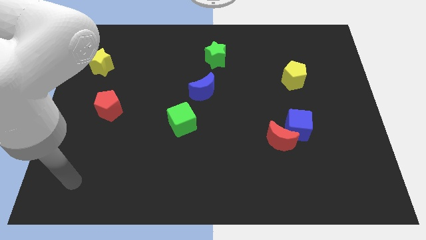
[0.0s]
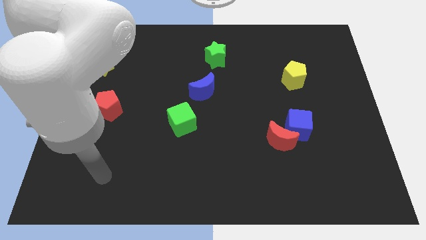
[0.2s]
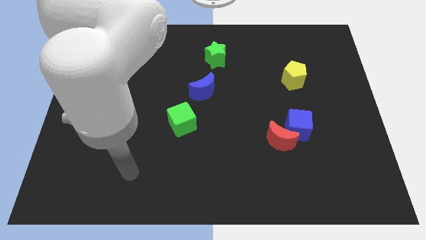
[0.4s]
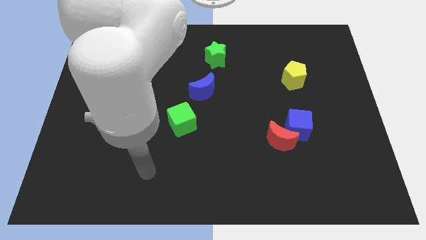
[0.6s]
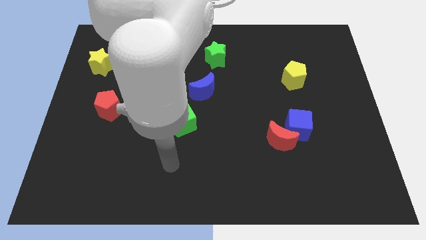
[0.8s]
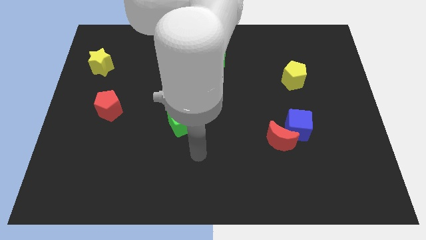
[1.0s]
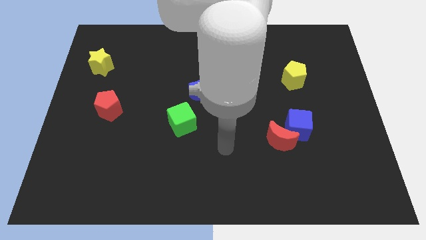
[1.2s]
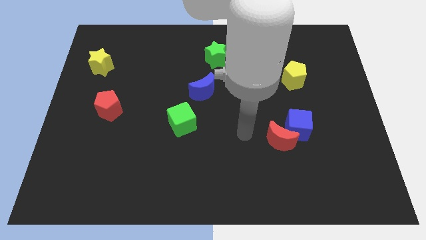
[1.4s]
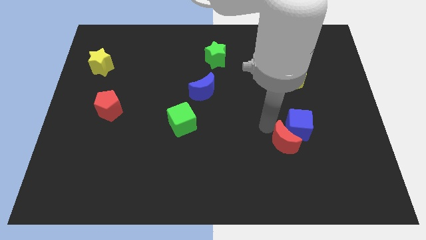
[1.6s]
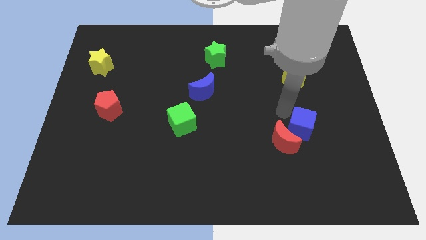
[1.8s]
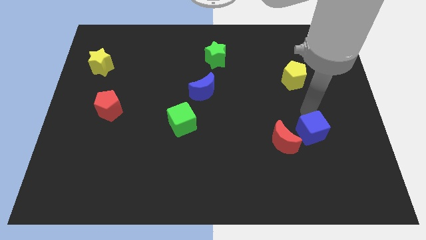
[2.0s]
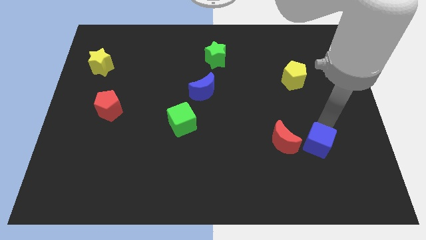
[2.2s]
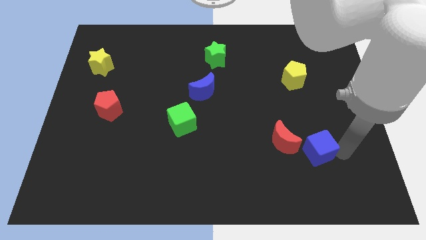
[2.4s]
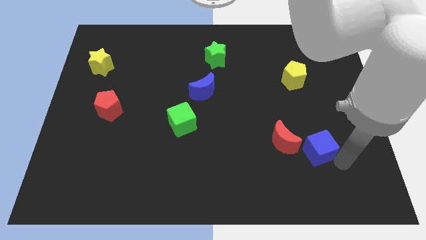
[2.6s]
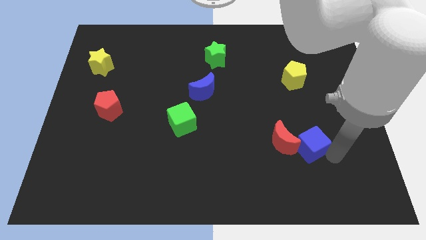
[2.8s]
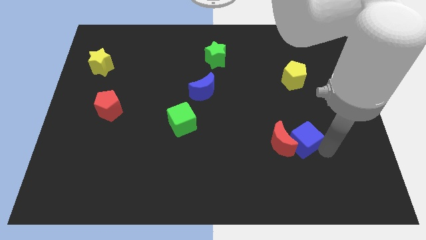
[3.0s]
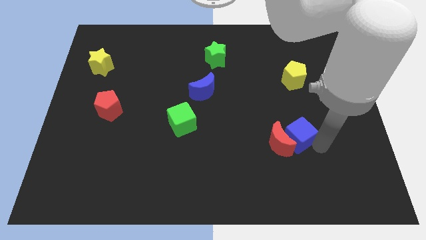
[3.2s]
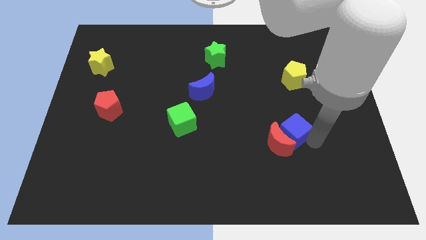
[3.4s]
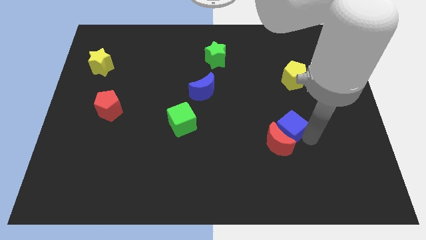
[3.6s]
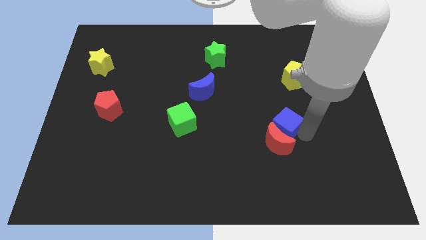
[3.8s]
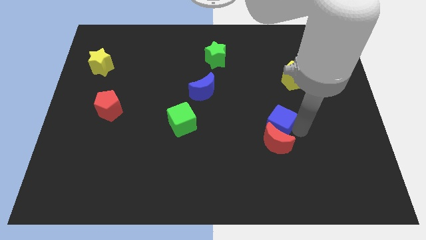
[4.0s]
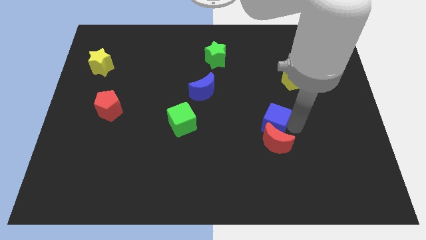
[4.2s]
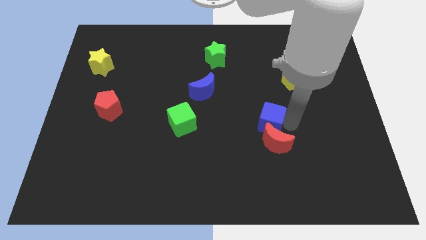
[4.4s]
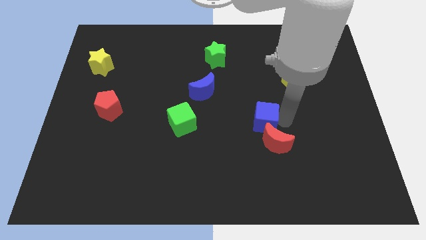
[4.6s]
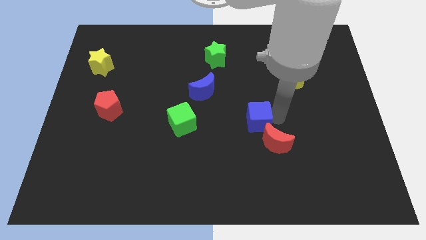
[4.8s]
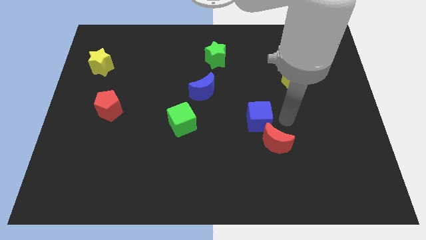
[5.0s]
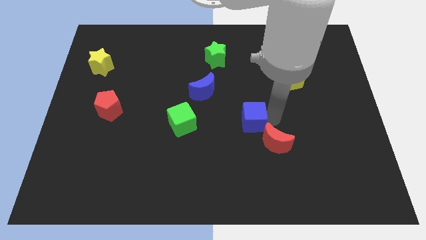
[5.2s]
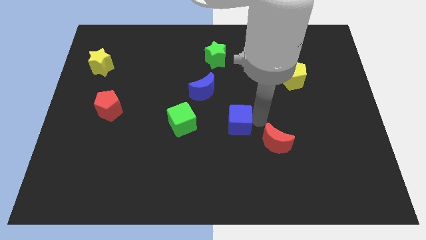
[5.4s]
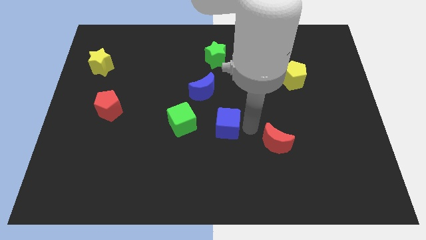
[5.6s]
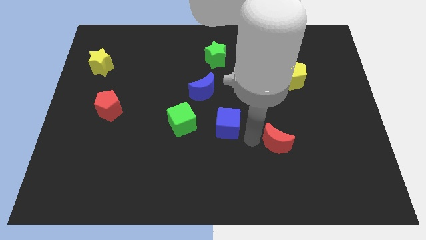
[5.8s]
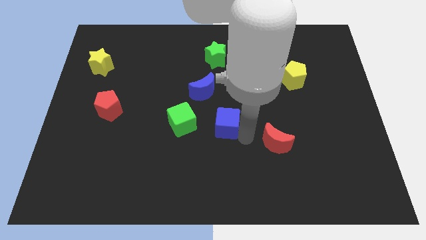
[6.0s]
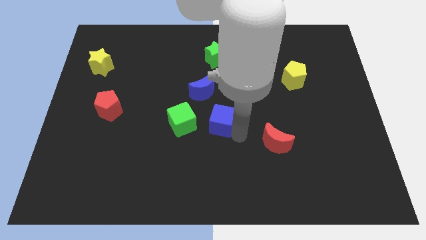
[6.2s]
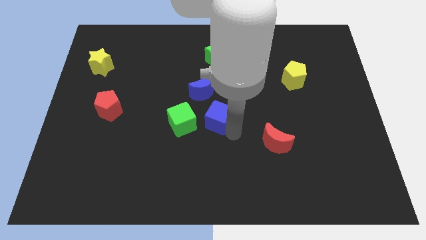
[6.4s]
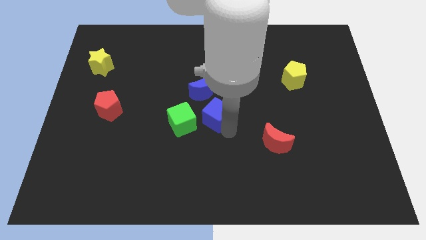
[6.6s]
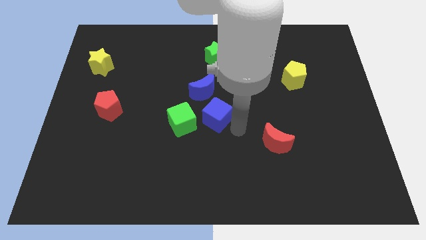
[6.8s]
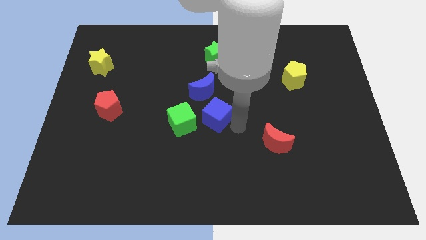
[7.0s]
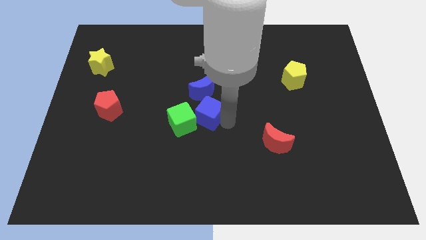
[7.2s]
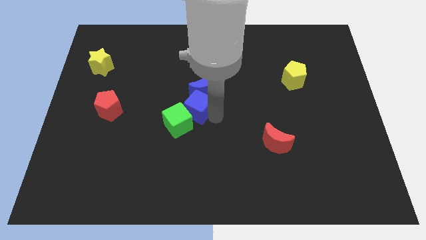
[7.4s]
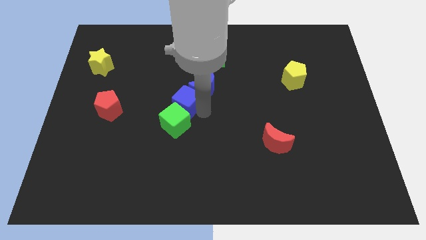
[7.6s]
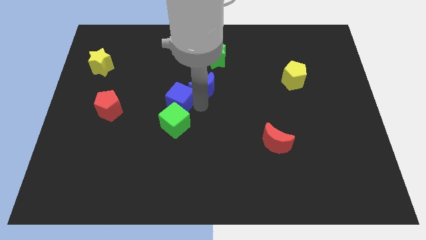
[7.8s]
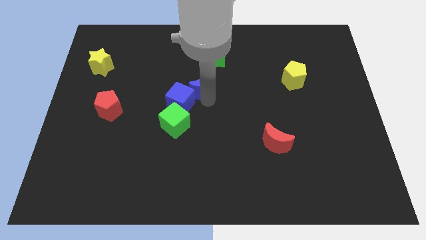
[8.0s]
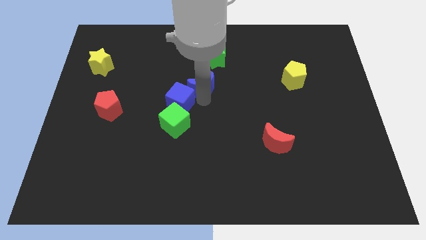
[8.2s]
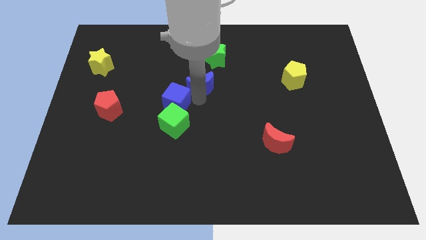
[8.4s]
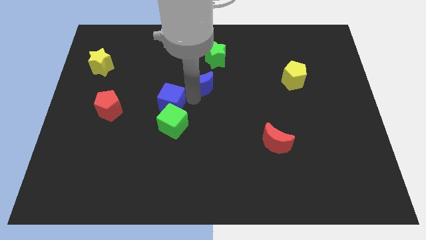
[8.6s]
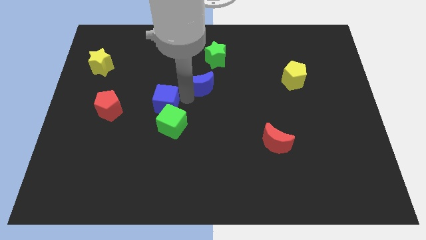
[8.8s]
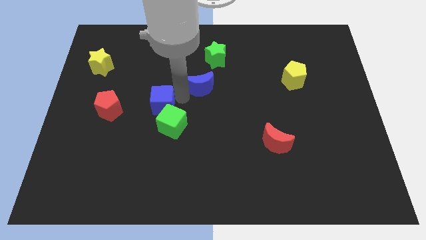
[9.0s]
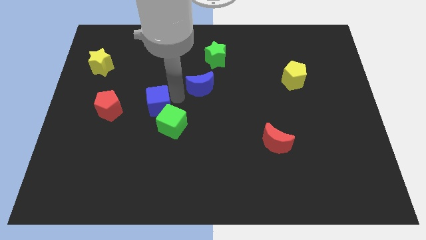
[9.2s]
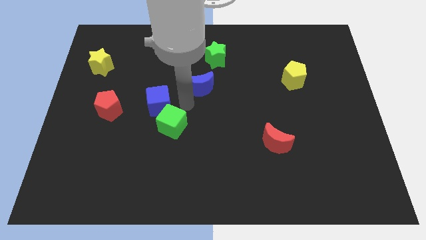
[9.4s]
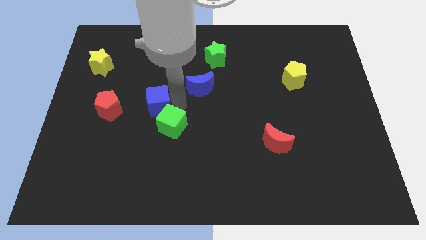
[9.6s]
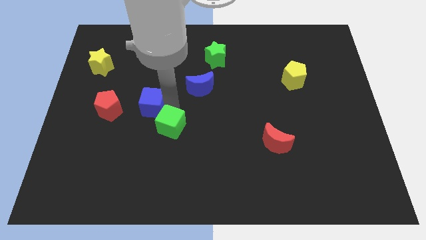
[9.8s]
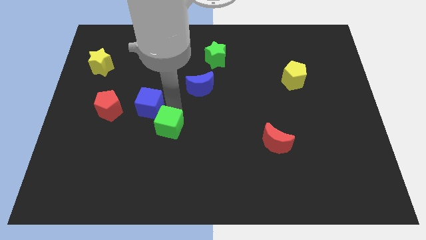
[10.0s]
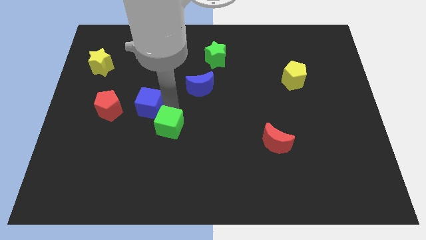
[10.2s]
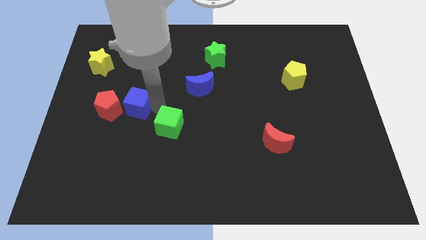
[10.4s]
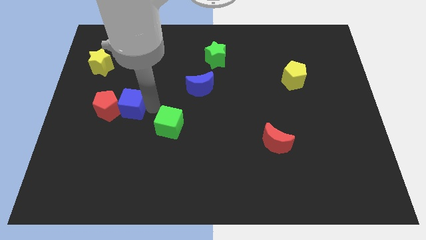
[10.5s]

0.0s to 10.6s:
push the blue cube towards the red pentagon

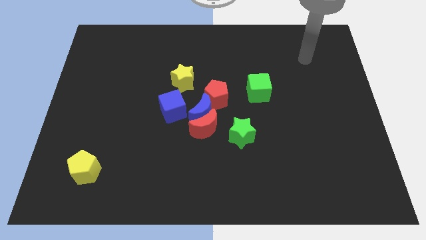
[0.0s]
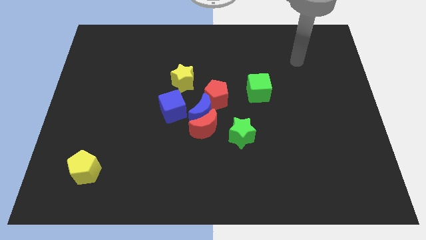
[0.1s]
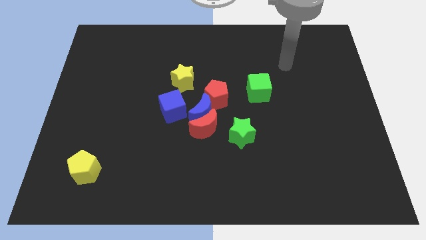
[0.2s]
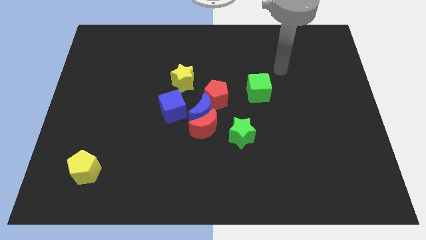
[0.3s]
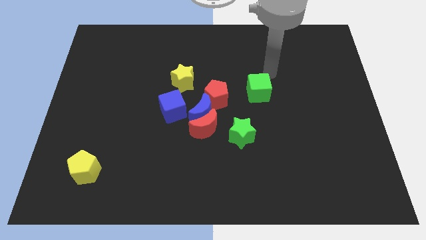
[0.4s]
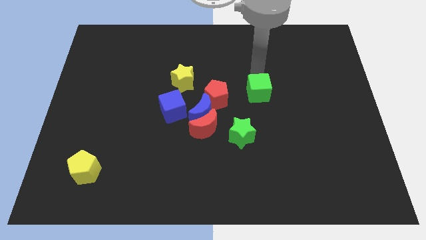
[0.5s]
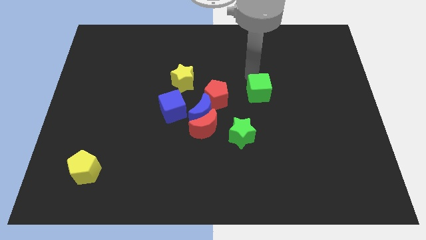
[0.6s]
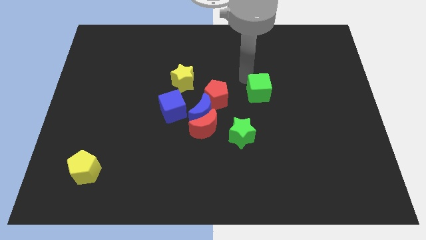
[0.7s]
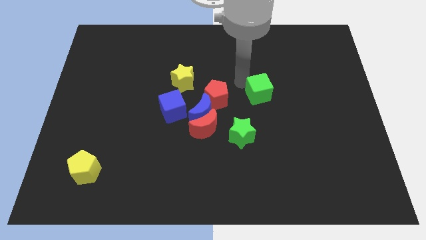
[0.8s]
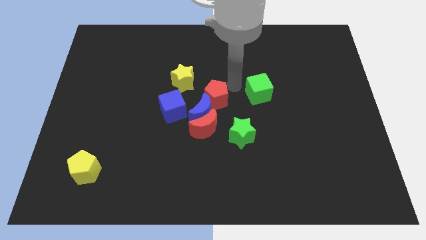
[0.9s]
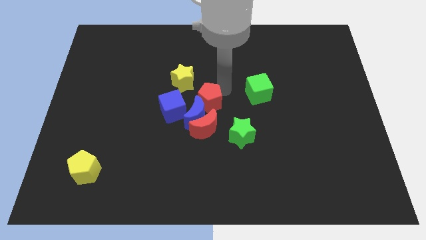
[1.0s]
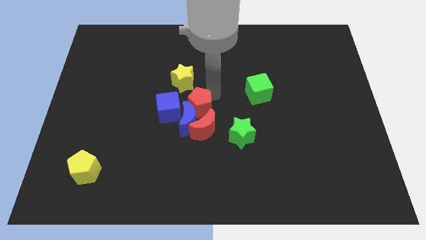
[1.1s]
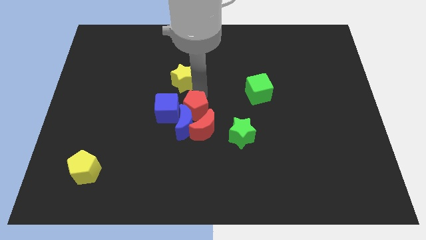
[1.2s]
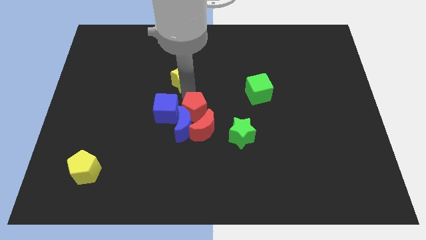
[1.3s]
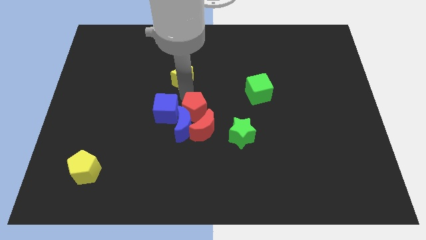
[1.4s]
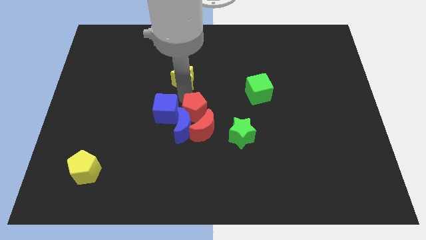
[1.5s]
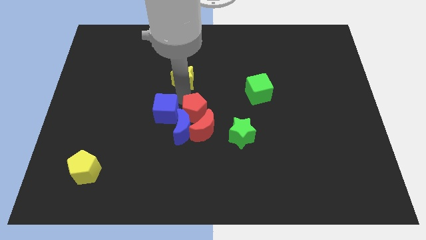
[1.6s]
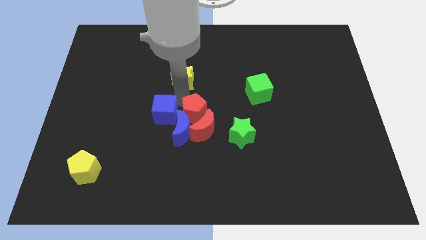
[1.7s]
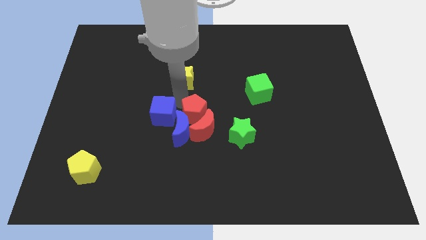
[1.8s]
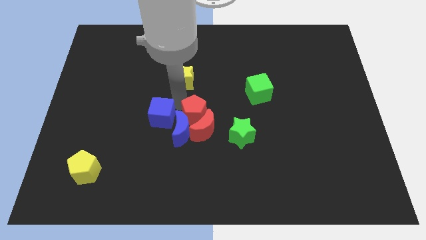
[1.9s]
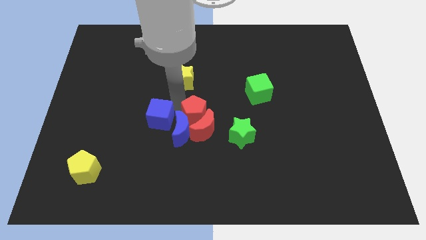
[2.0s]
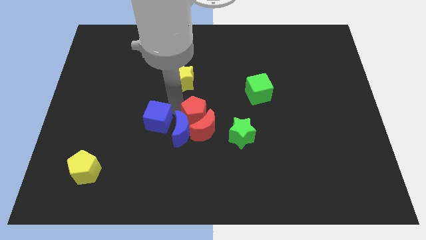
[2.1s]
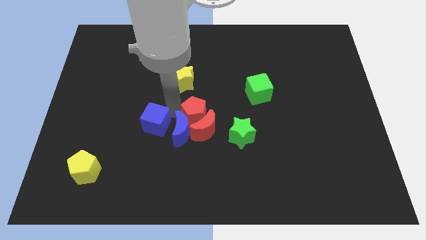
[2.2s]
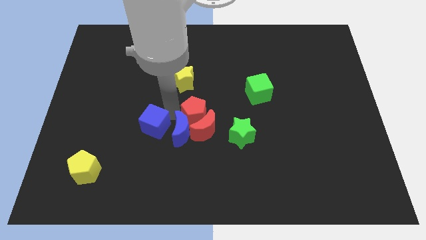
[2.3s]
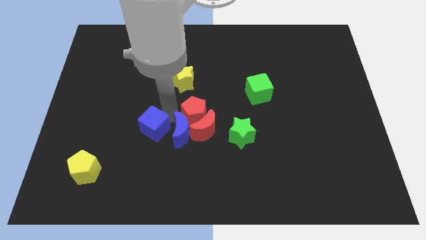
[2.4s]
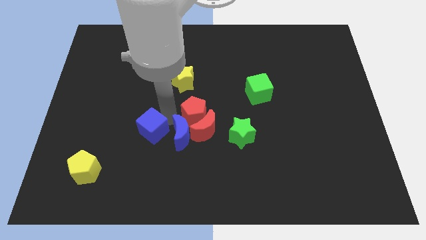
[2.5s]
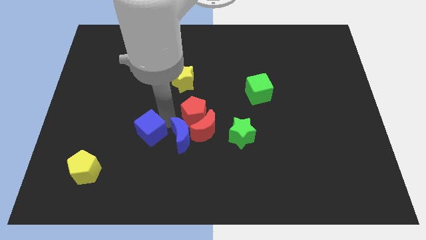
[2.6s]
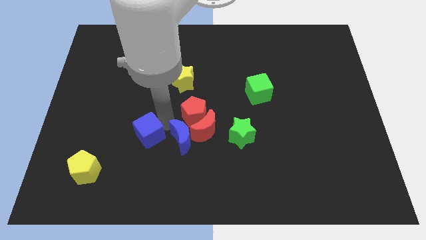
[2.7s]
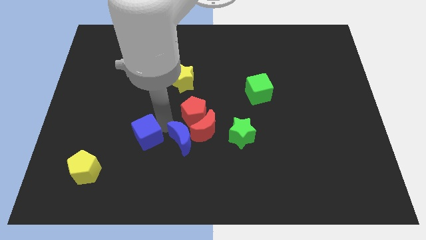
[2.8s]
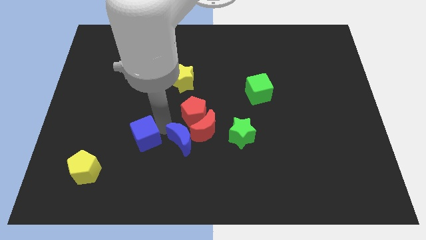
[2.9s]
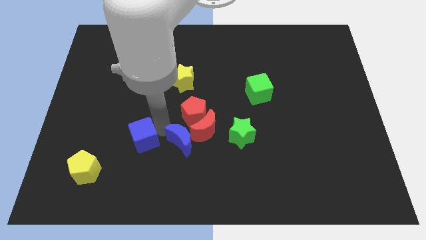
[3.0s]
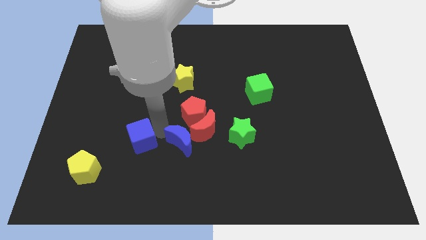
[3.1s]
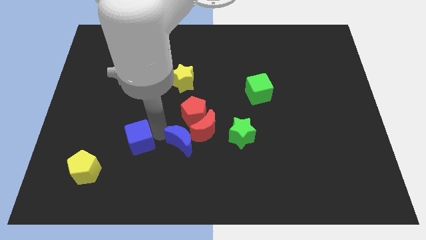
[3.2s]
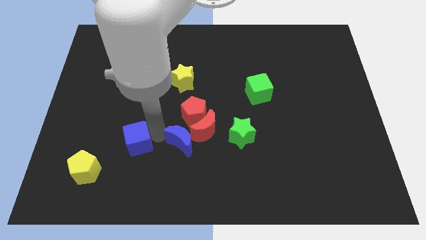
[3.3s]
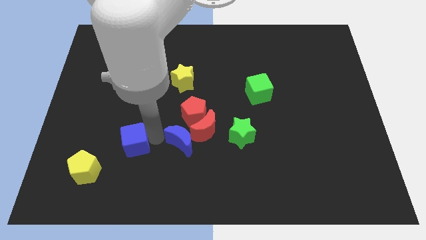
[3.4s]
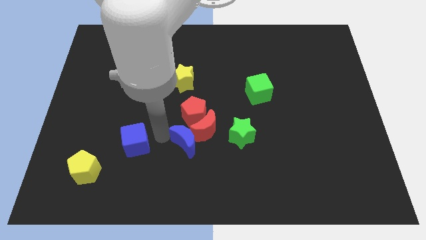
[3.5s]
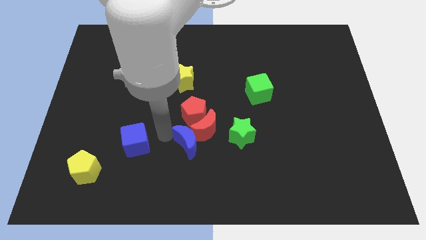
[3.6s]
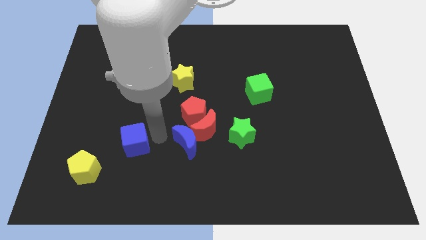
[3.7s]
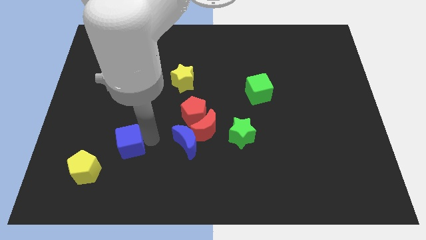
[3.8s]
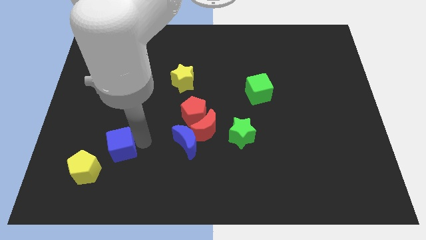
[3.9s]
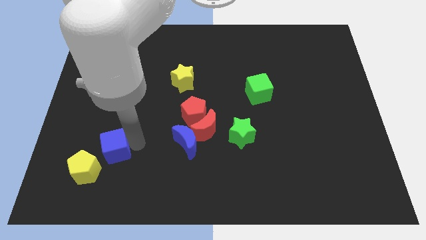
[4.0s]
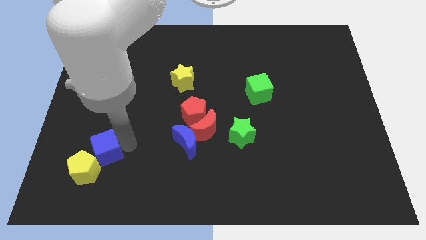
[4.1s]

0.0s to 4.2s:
put the blue cube towards the yellow pentagon
